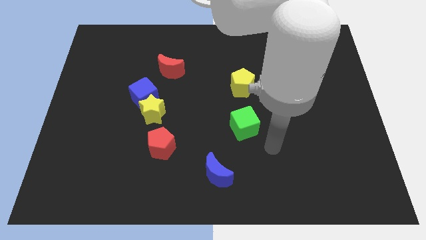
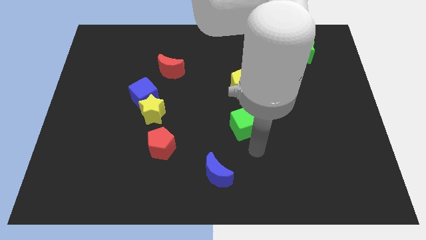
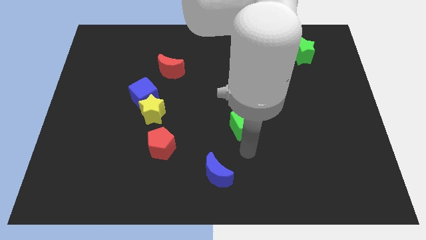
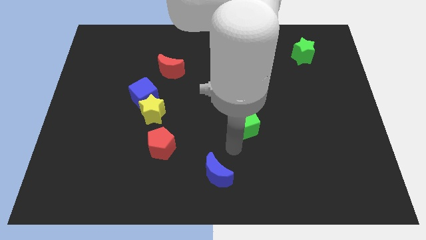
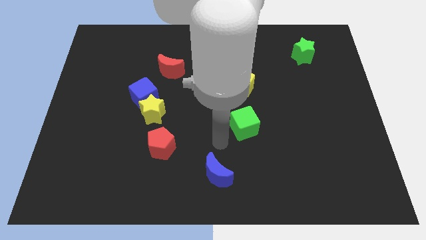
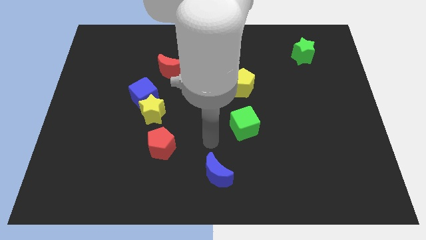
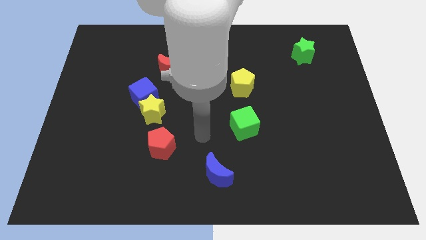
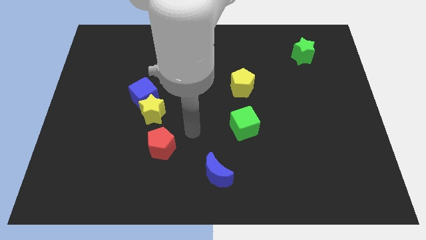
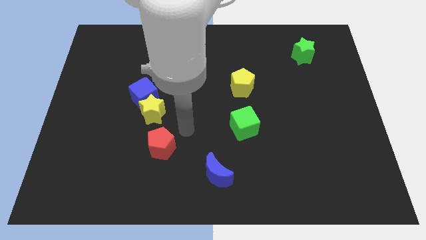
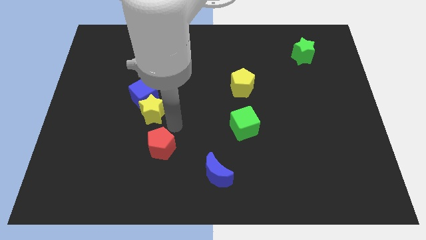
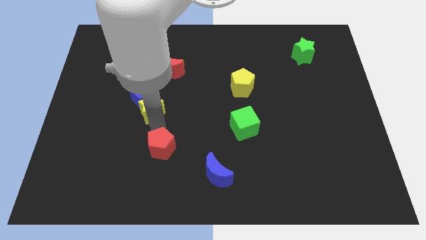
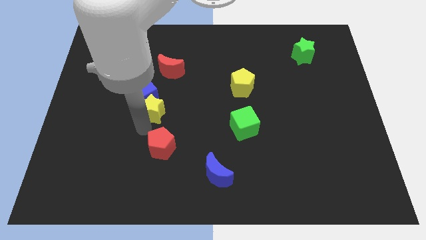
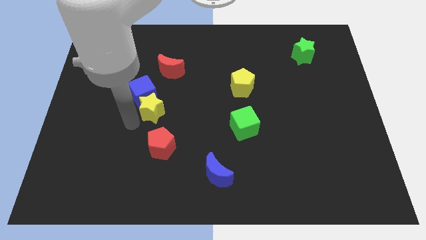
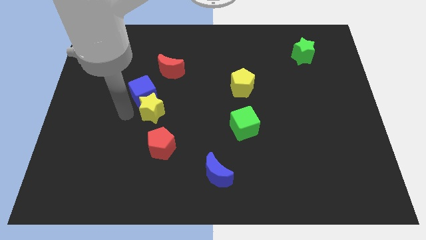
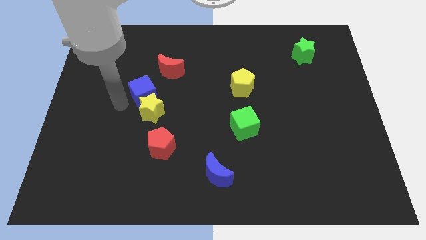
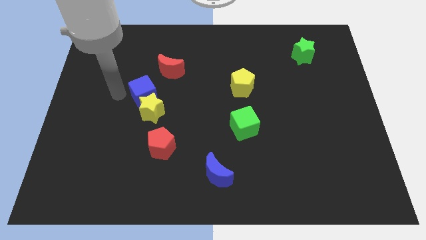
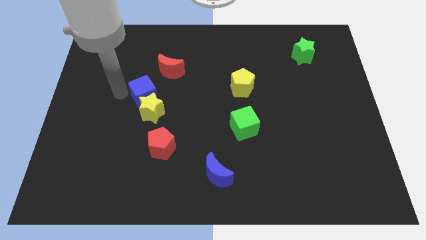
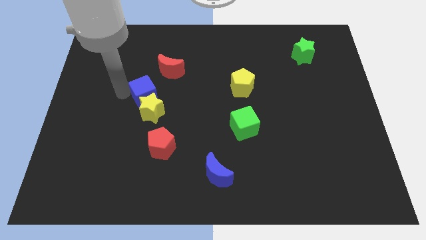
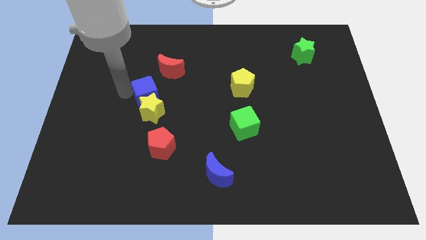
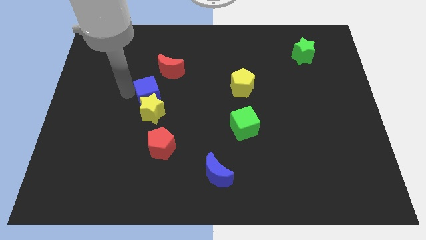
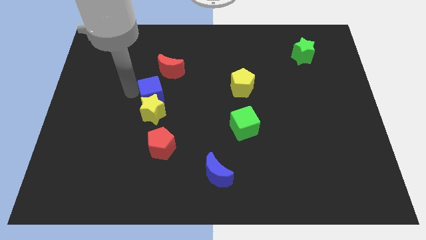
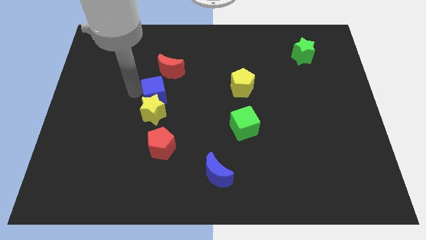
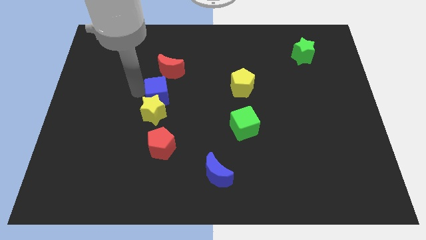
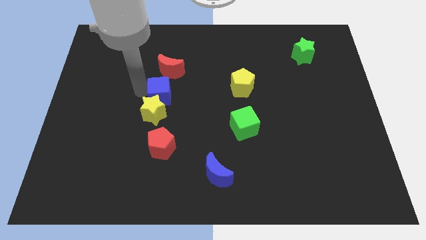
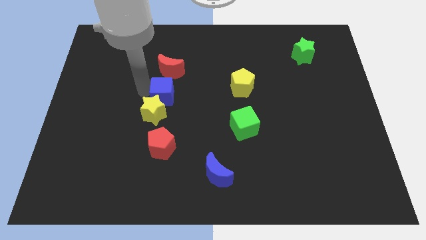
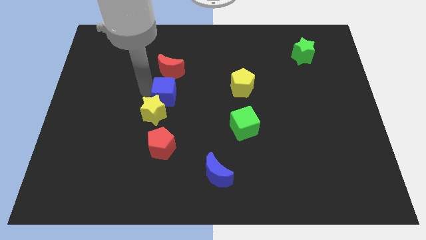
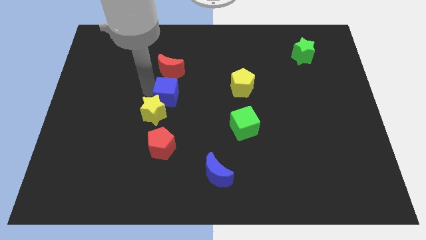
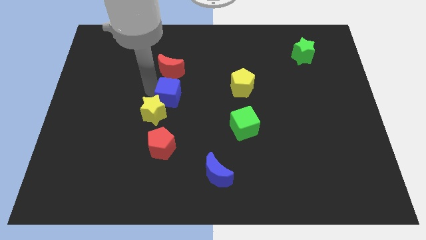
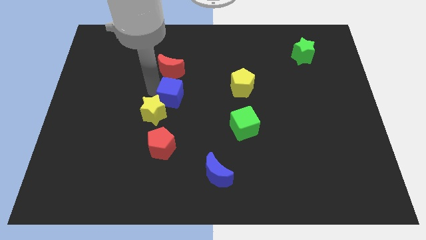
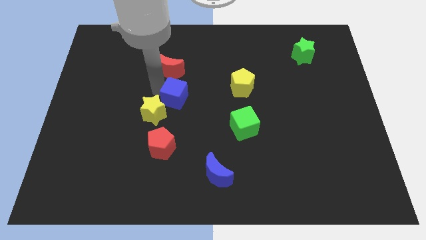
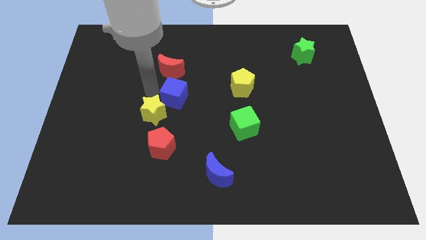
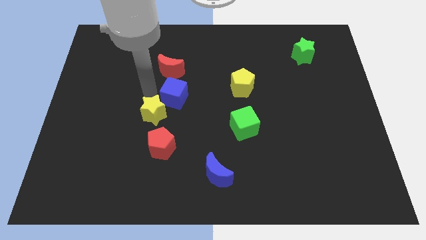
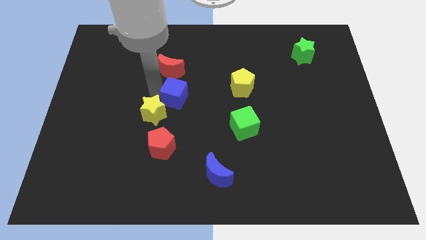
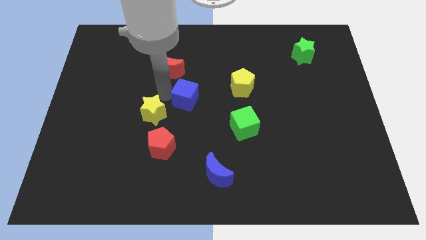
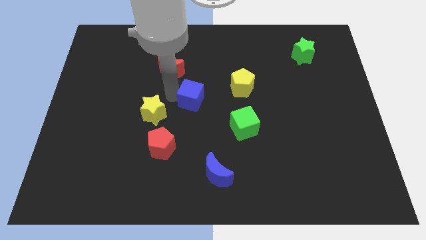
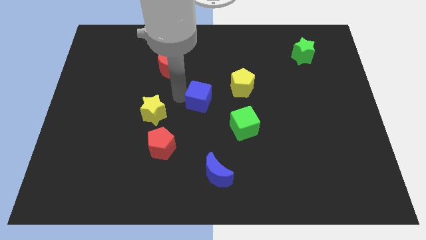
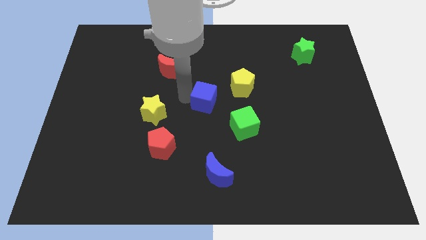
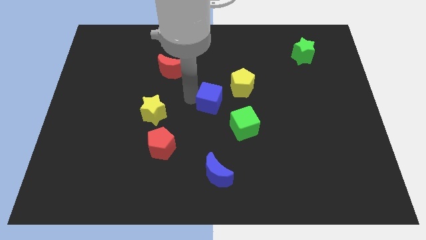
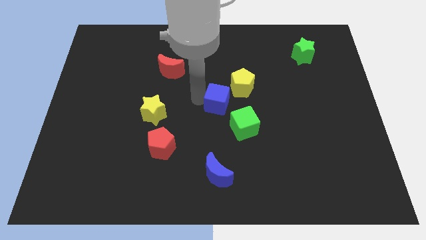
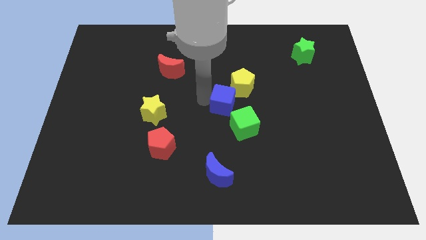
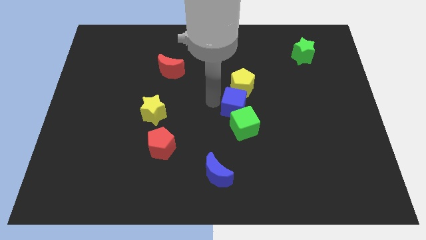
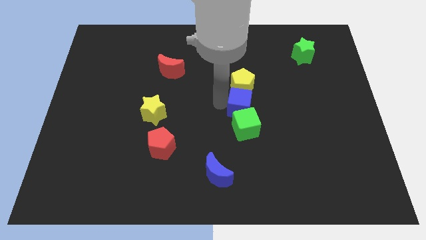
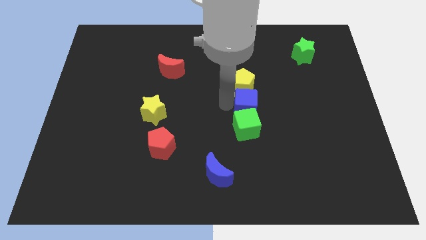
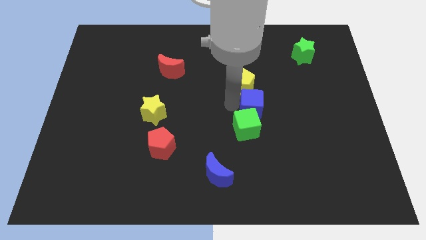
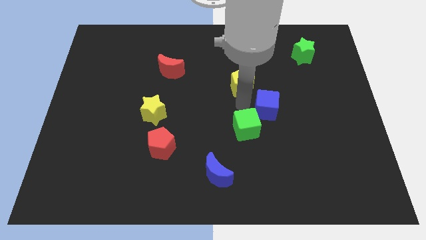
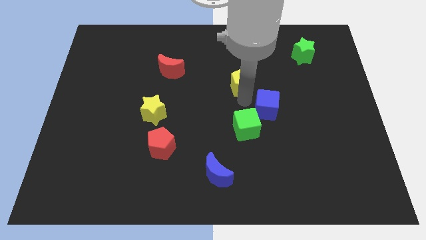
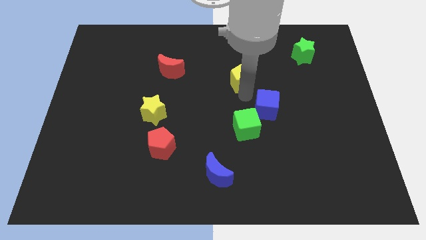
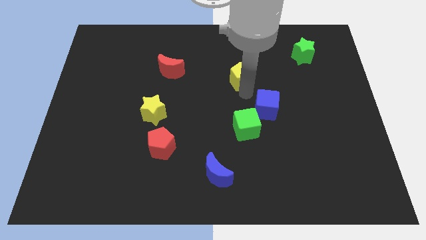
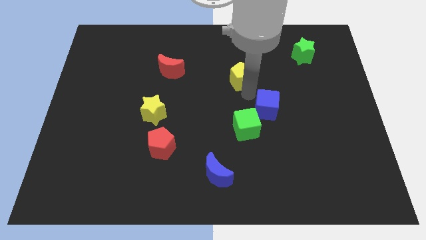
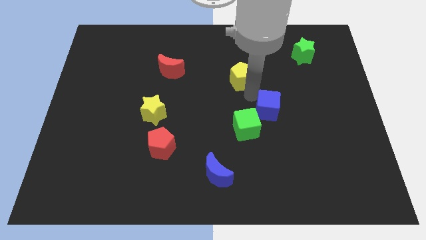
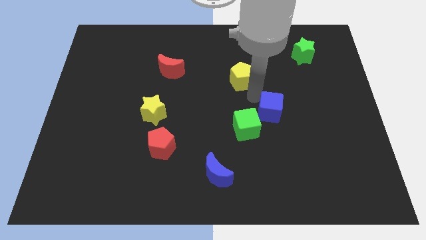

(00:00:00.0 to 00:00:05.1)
slide the blue cube right of the green cube

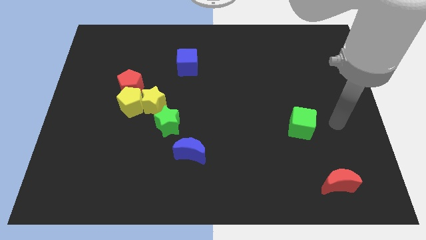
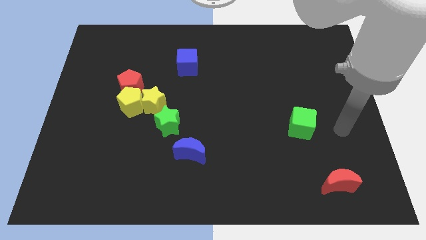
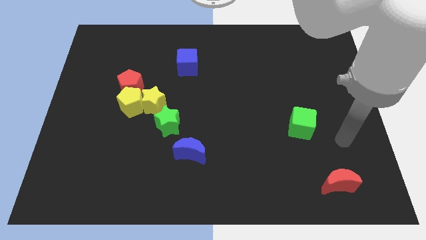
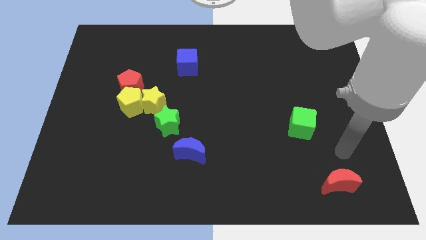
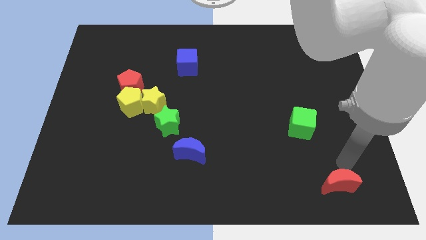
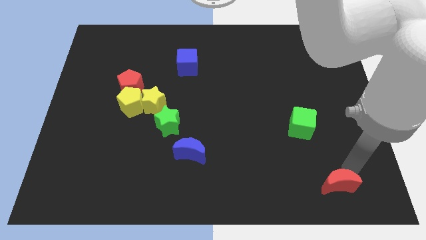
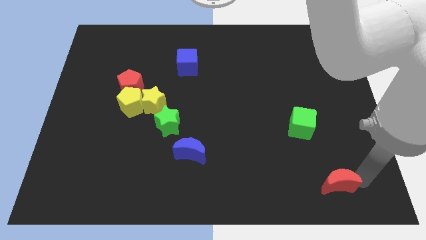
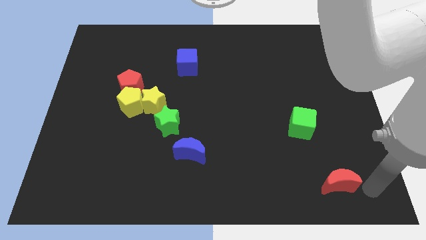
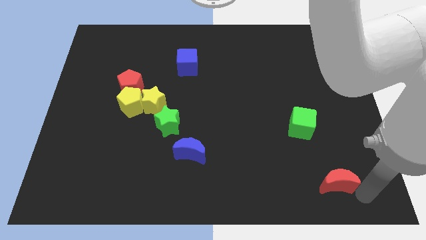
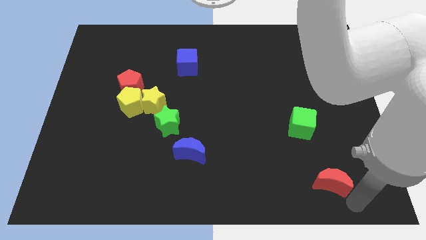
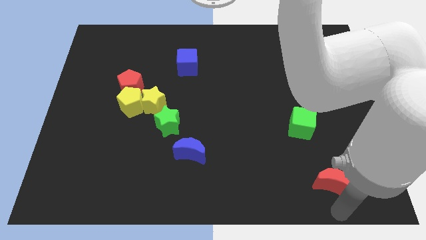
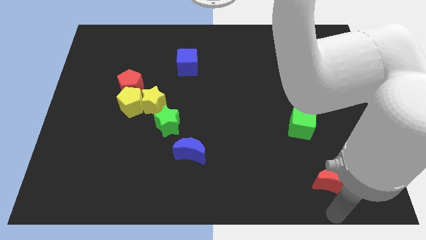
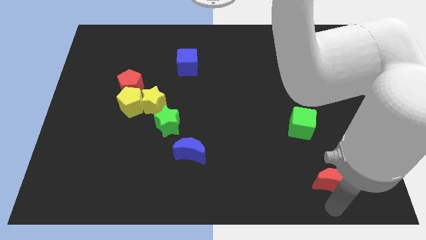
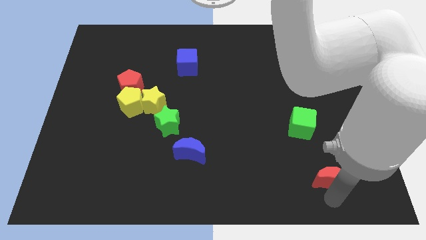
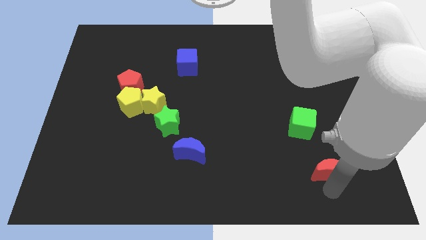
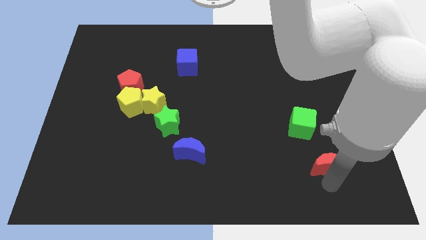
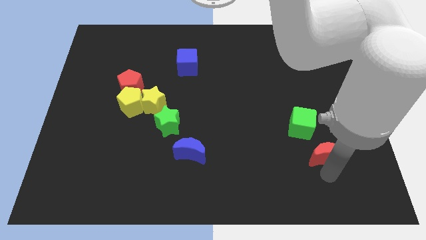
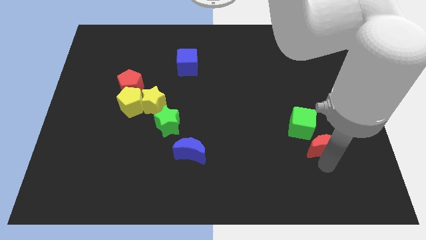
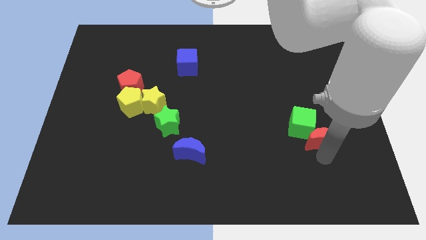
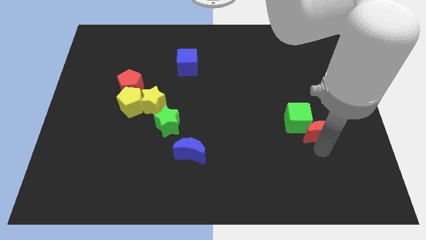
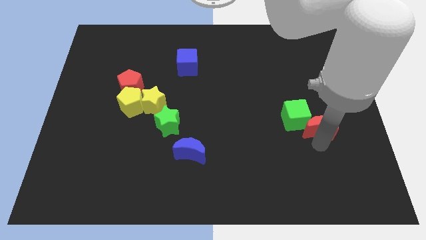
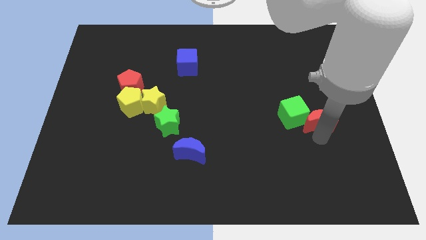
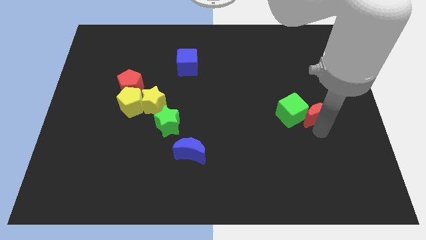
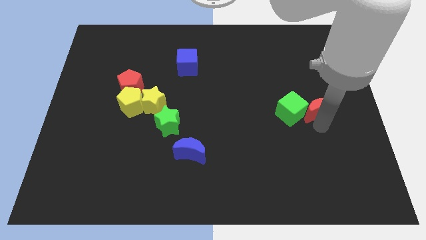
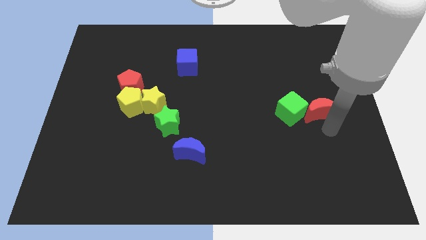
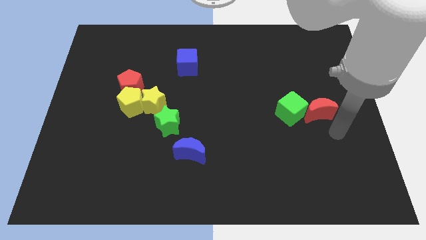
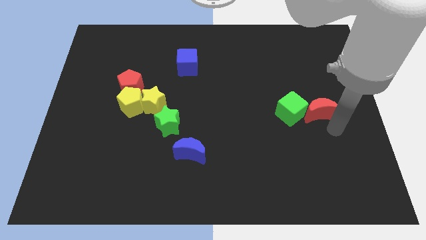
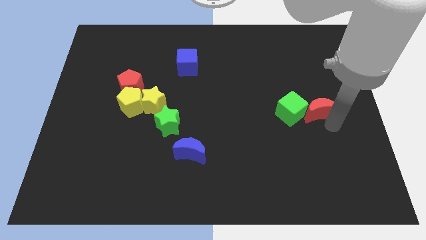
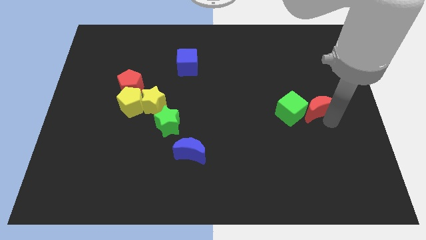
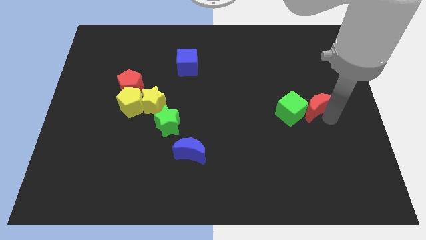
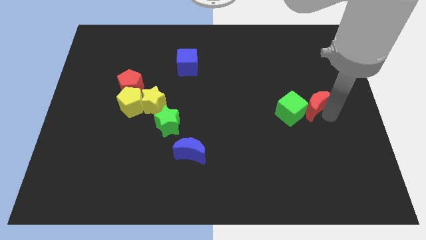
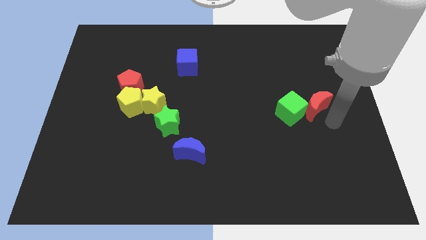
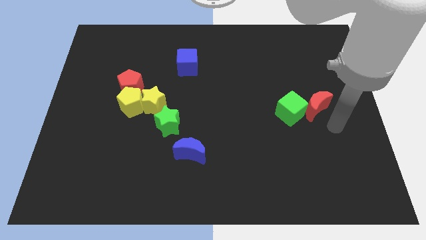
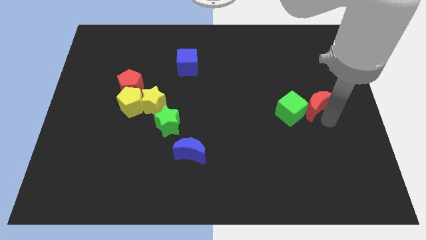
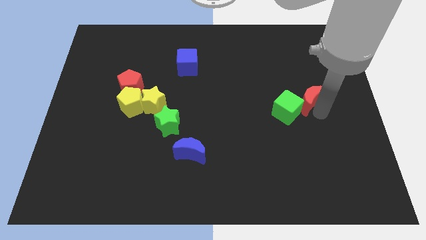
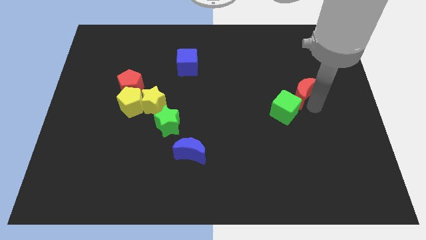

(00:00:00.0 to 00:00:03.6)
put the red moon above the green cube
